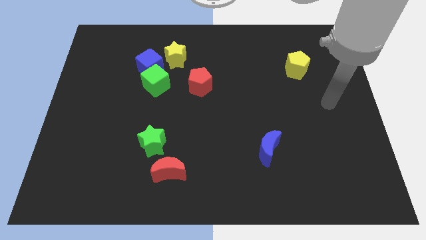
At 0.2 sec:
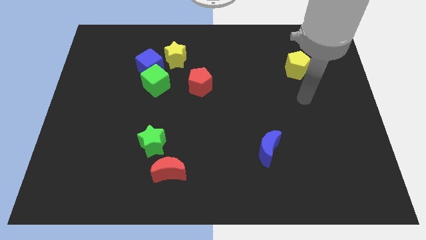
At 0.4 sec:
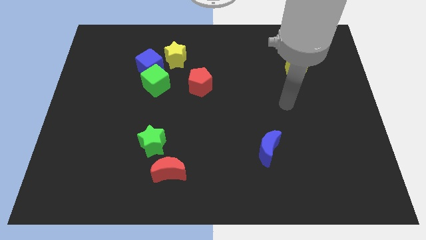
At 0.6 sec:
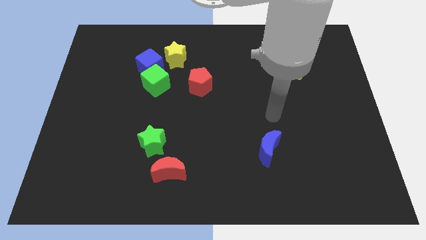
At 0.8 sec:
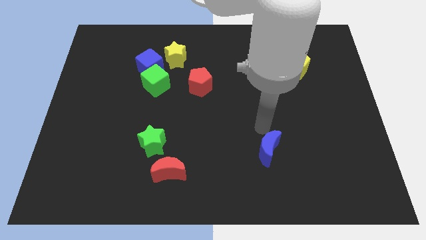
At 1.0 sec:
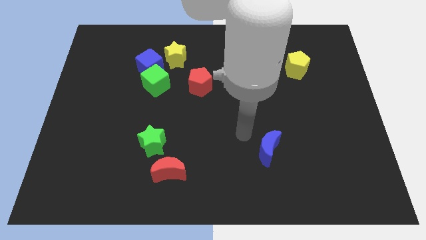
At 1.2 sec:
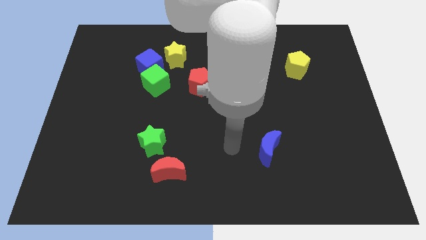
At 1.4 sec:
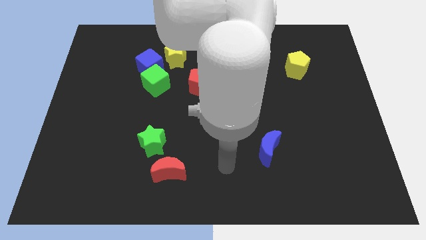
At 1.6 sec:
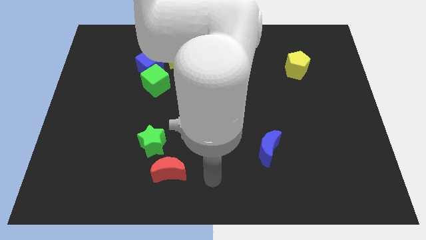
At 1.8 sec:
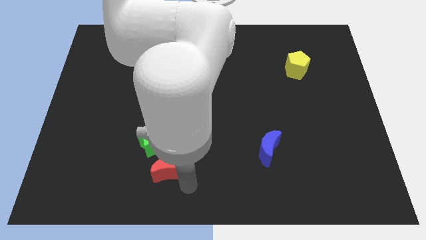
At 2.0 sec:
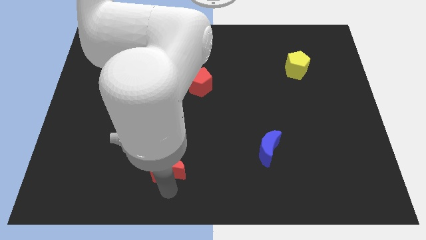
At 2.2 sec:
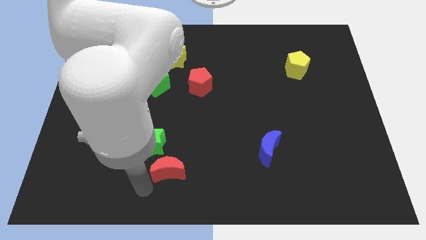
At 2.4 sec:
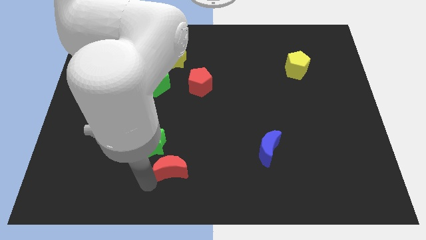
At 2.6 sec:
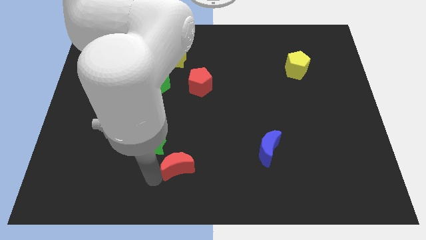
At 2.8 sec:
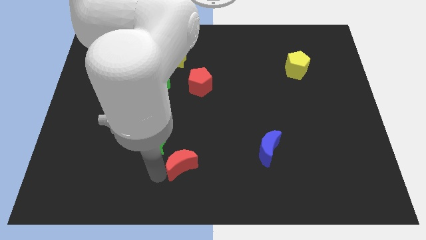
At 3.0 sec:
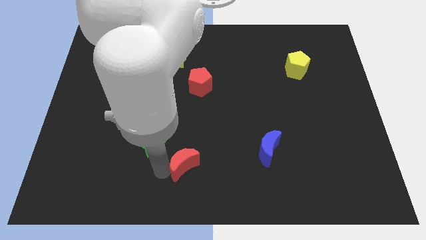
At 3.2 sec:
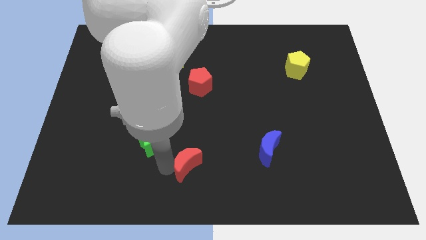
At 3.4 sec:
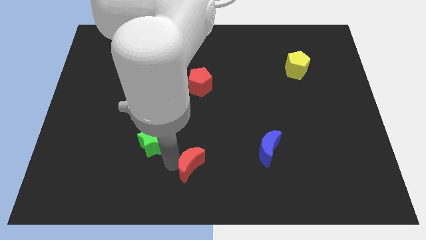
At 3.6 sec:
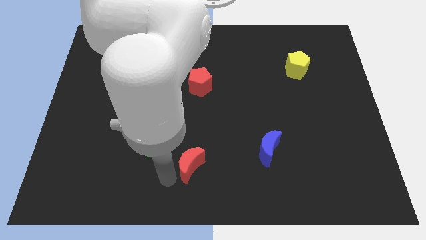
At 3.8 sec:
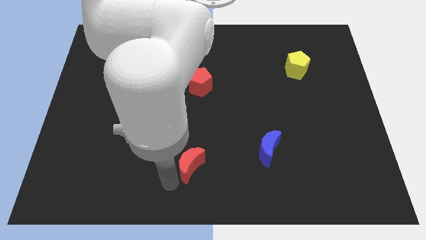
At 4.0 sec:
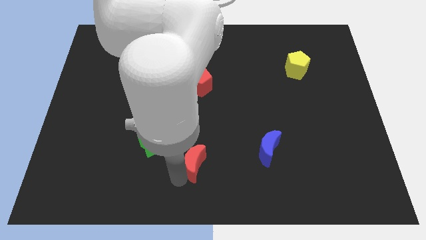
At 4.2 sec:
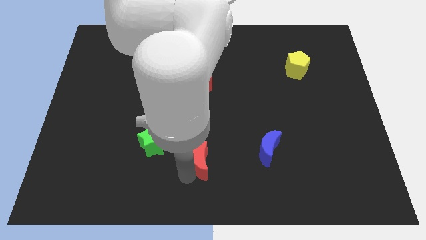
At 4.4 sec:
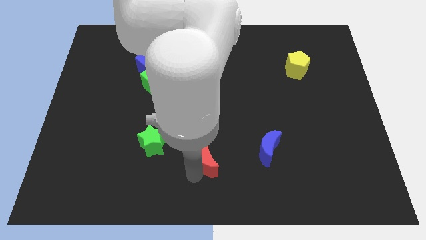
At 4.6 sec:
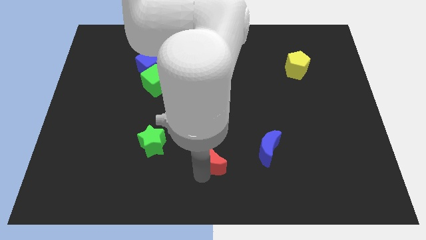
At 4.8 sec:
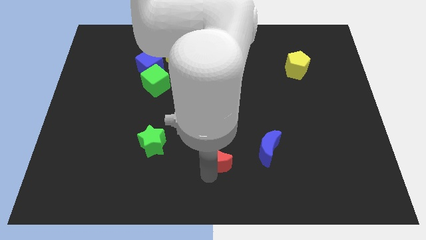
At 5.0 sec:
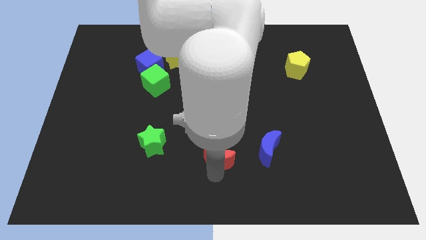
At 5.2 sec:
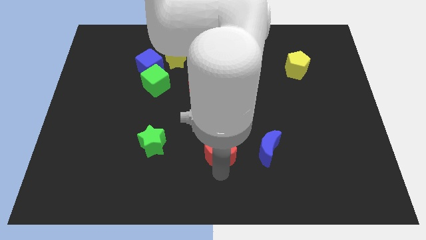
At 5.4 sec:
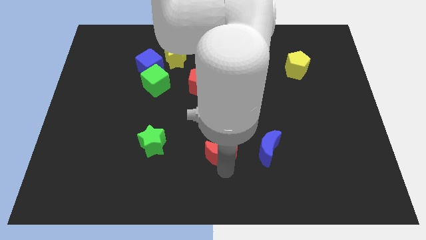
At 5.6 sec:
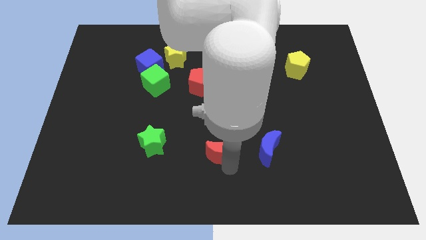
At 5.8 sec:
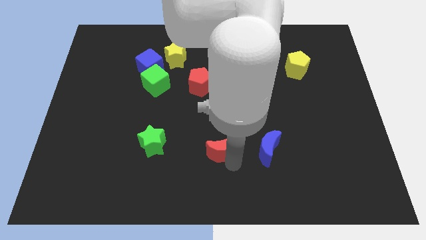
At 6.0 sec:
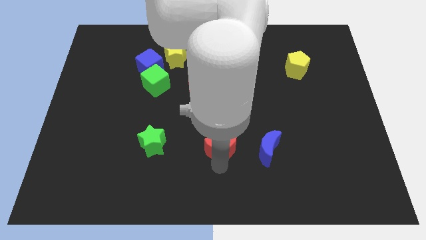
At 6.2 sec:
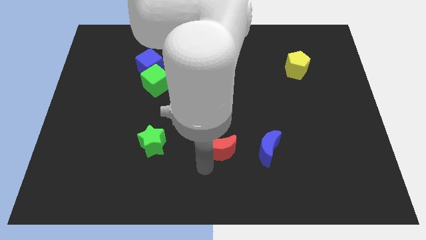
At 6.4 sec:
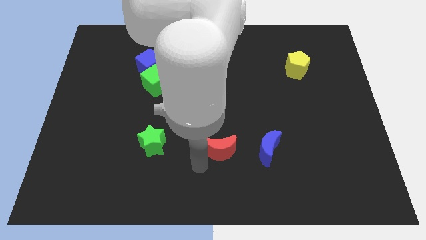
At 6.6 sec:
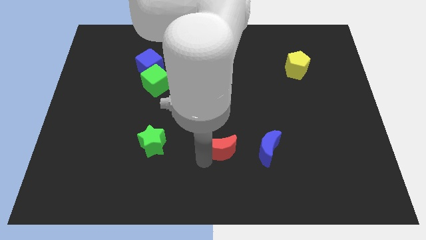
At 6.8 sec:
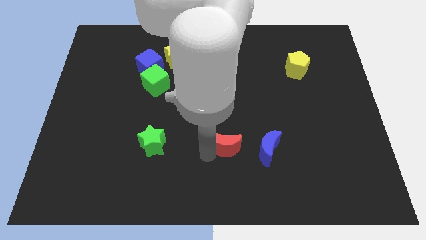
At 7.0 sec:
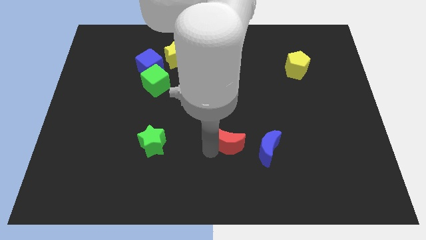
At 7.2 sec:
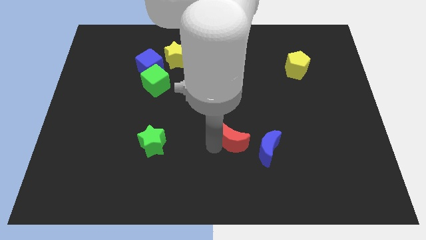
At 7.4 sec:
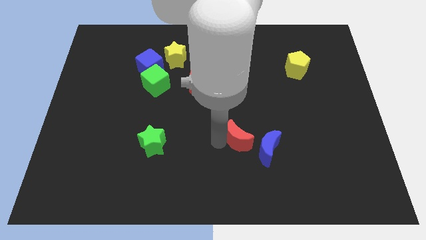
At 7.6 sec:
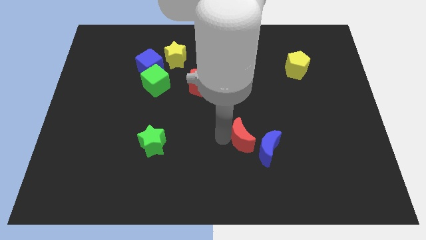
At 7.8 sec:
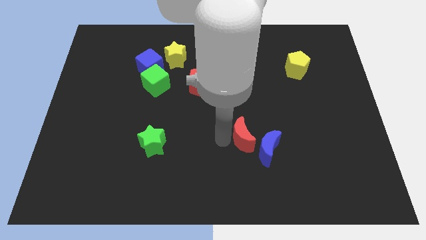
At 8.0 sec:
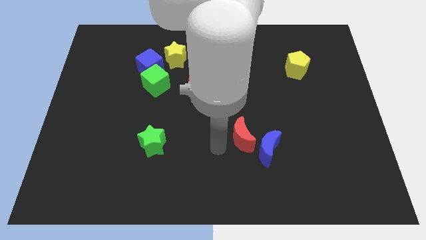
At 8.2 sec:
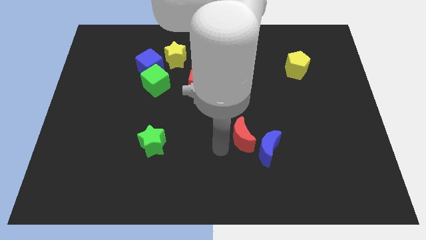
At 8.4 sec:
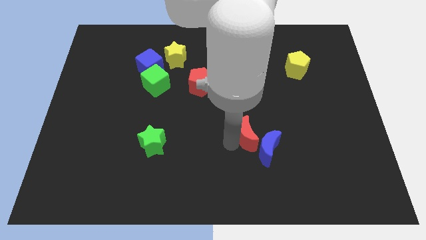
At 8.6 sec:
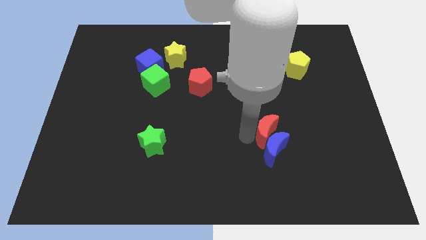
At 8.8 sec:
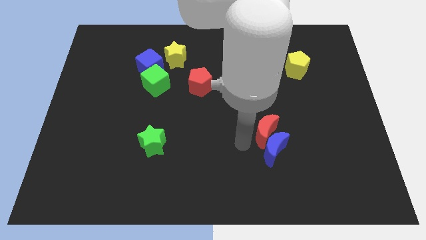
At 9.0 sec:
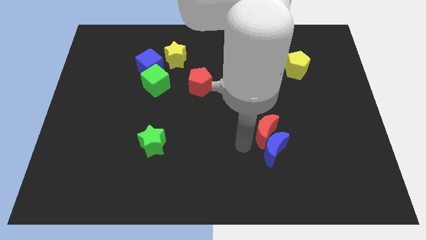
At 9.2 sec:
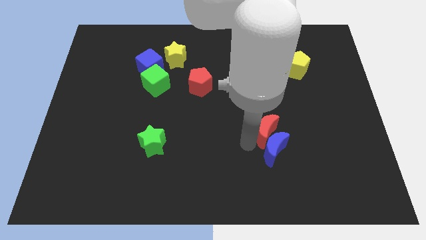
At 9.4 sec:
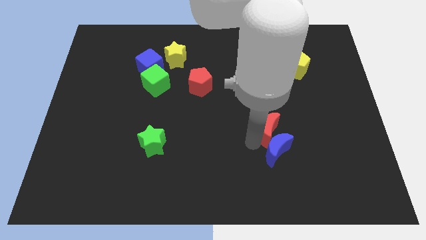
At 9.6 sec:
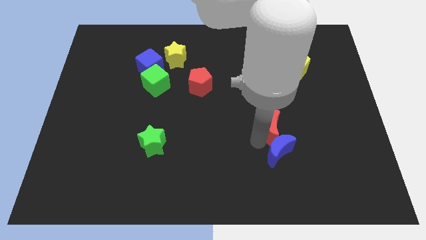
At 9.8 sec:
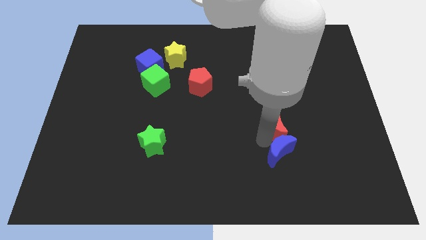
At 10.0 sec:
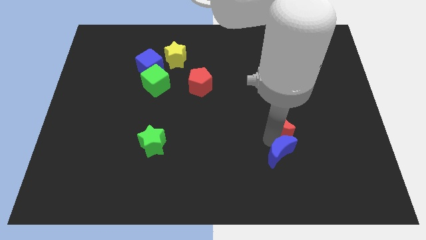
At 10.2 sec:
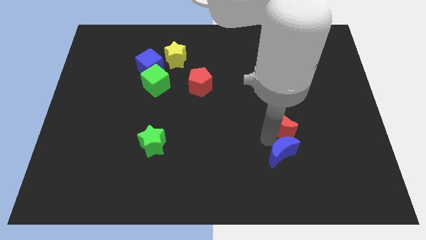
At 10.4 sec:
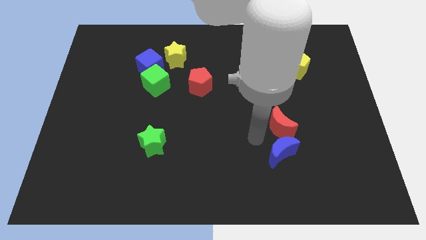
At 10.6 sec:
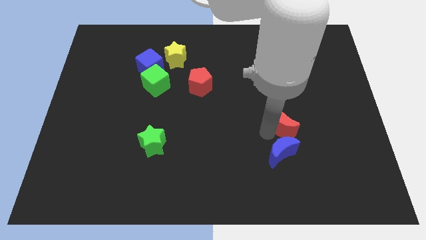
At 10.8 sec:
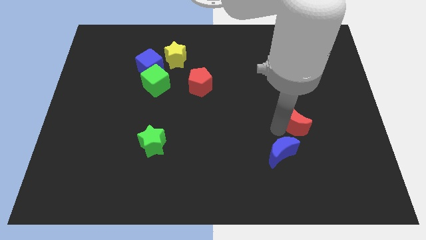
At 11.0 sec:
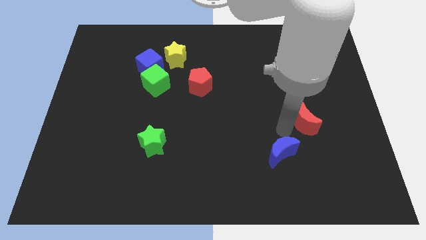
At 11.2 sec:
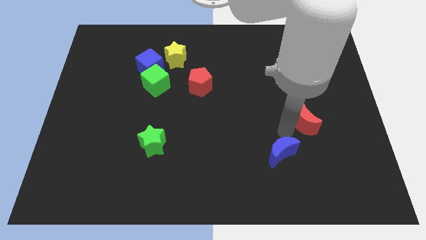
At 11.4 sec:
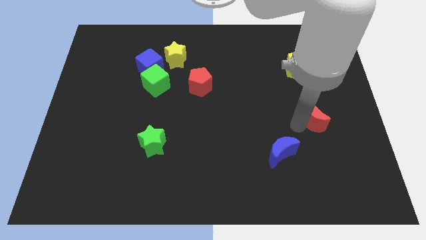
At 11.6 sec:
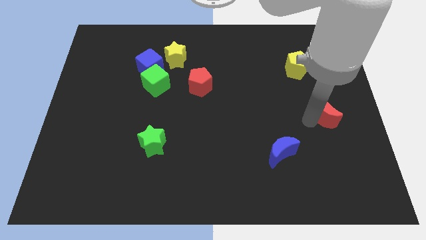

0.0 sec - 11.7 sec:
put the red moon to the center right

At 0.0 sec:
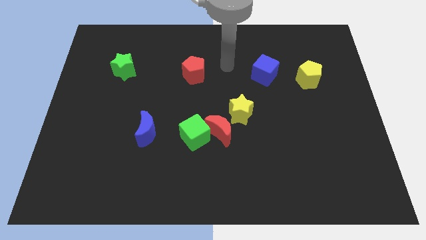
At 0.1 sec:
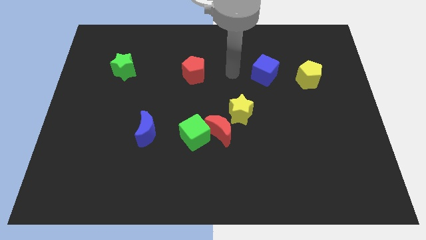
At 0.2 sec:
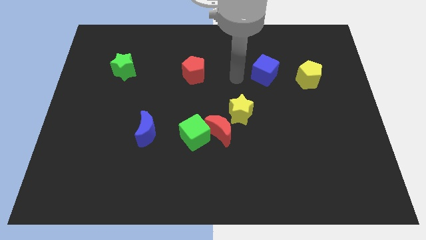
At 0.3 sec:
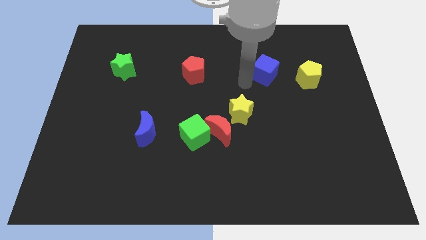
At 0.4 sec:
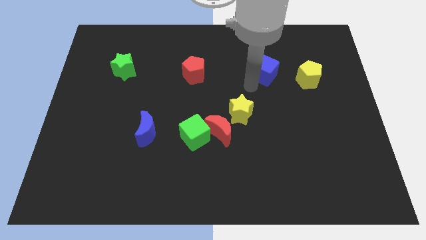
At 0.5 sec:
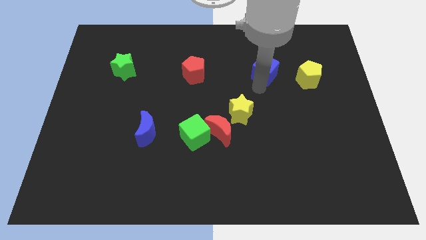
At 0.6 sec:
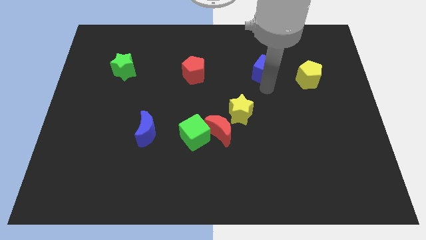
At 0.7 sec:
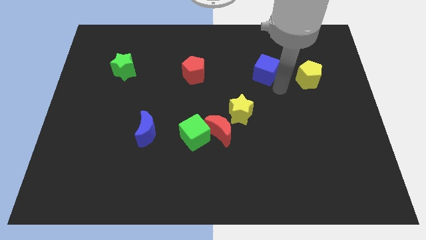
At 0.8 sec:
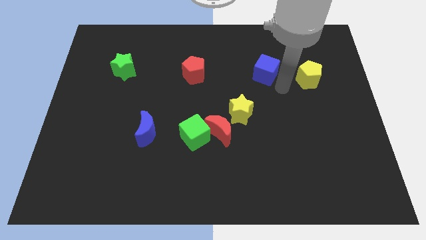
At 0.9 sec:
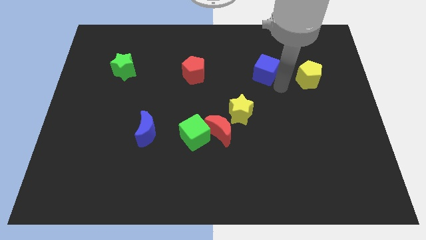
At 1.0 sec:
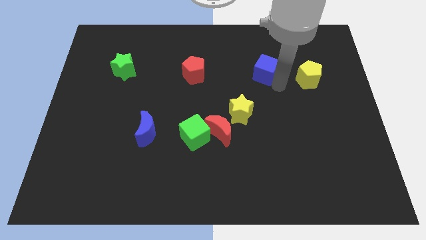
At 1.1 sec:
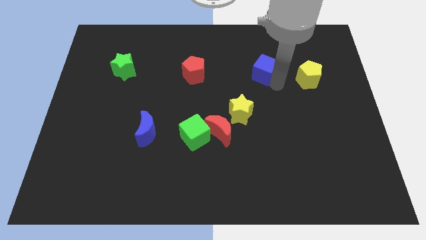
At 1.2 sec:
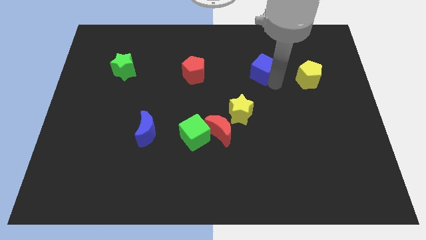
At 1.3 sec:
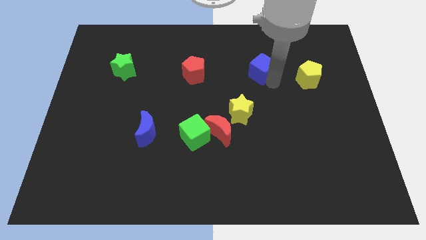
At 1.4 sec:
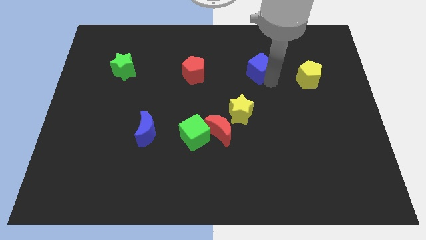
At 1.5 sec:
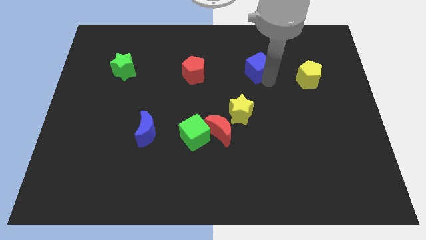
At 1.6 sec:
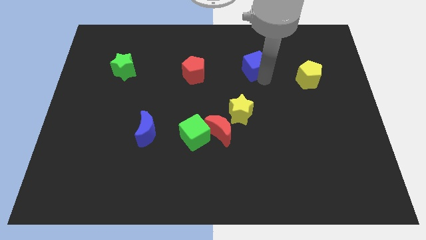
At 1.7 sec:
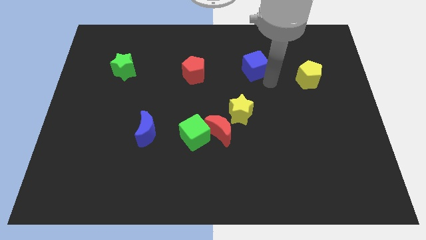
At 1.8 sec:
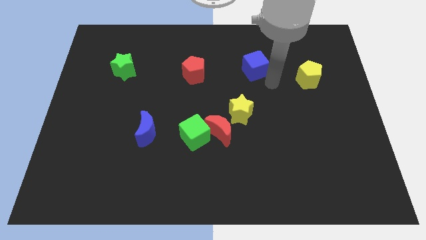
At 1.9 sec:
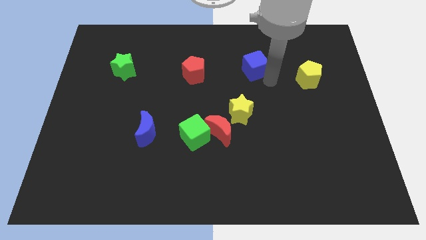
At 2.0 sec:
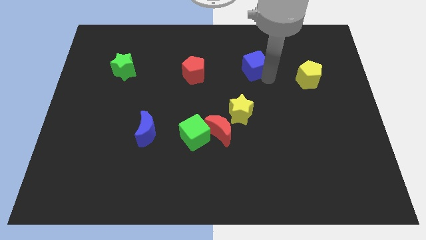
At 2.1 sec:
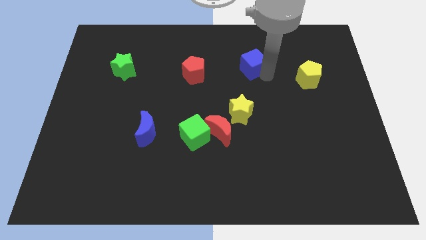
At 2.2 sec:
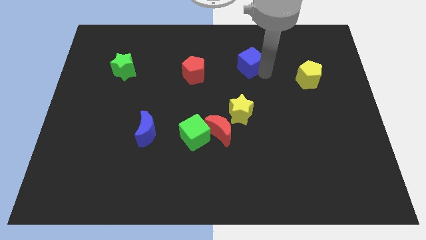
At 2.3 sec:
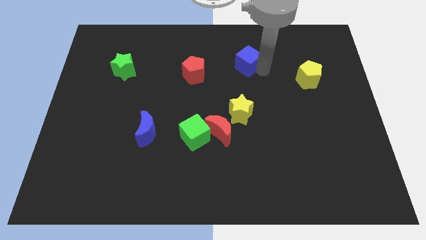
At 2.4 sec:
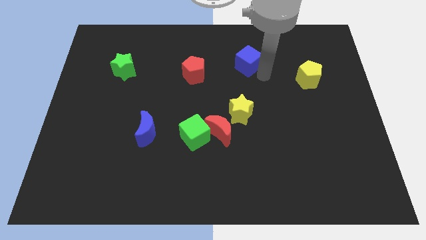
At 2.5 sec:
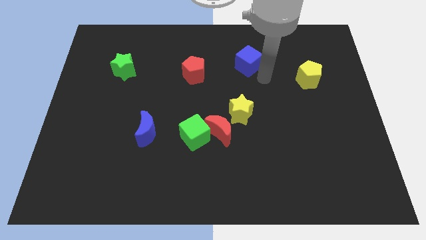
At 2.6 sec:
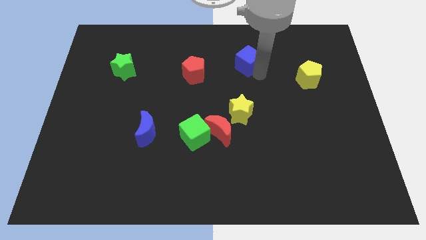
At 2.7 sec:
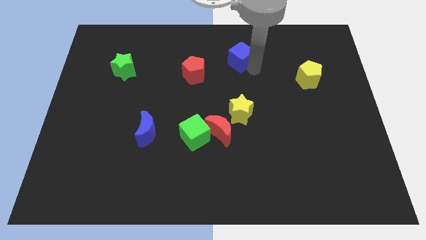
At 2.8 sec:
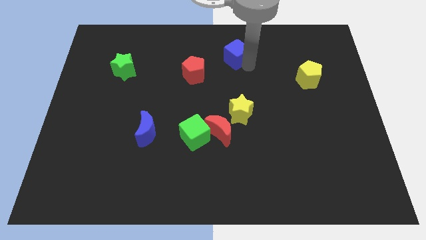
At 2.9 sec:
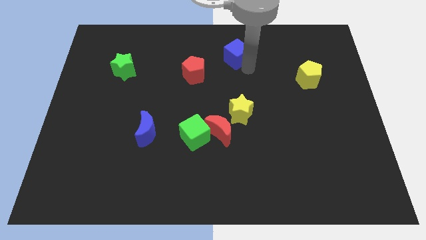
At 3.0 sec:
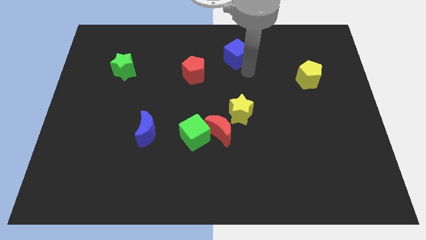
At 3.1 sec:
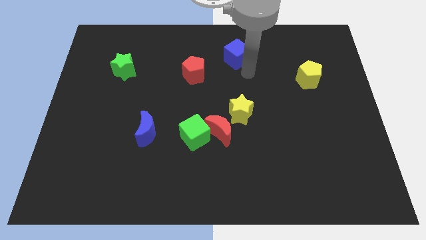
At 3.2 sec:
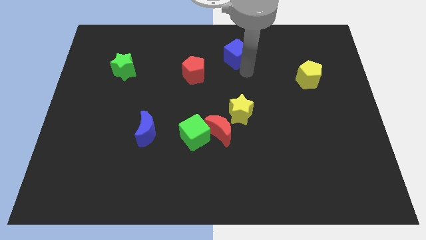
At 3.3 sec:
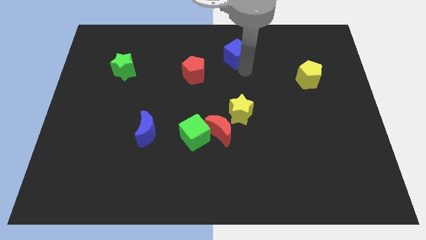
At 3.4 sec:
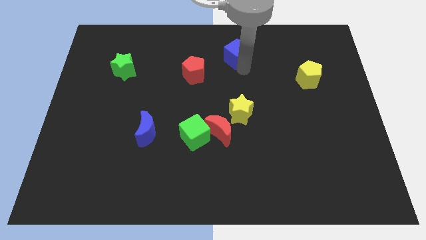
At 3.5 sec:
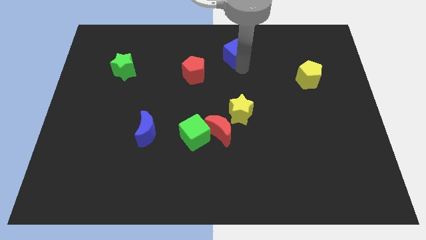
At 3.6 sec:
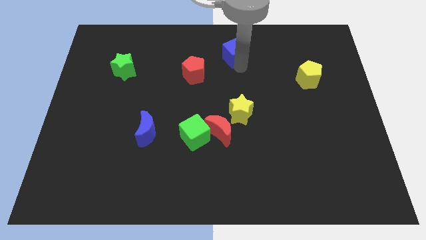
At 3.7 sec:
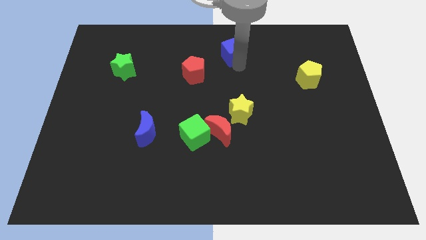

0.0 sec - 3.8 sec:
push the blue cube to the top
